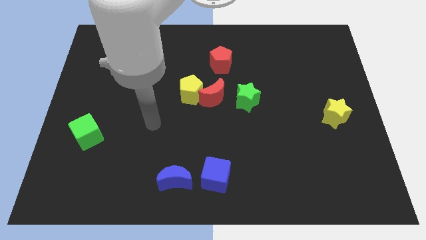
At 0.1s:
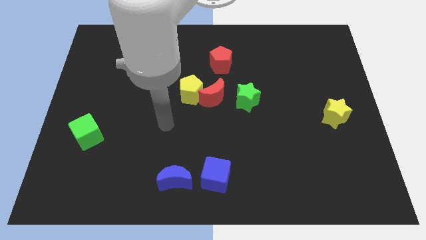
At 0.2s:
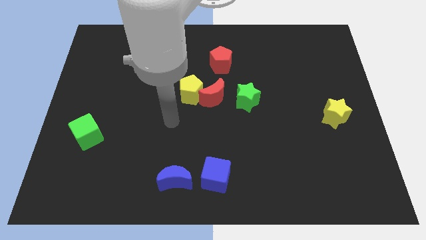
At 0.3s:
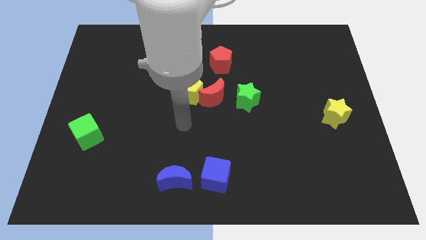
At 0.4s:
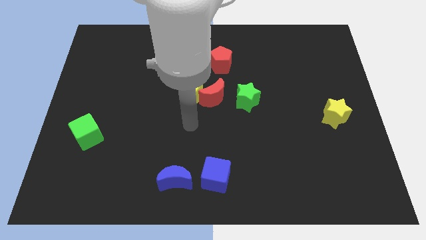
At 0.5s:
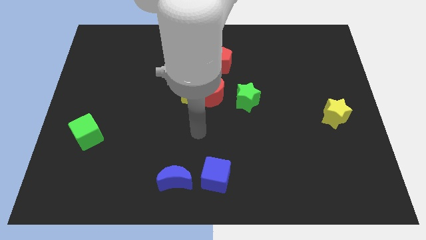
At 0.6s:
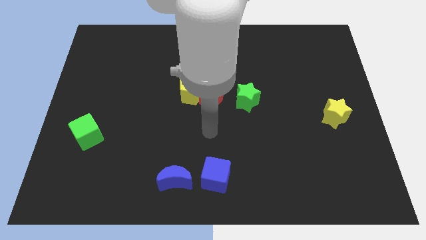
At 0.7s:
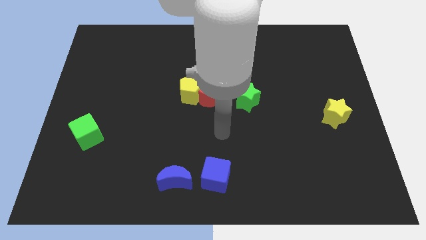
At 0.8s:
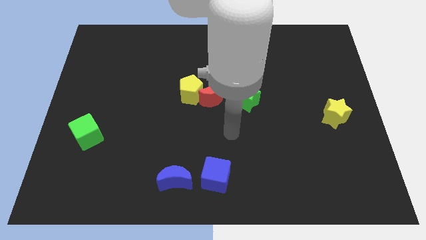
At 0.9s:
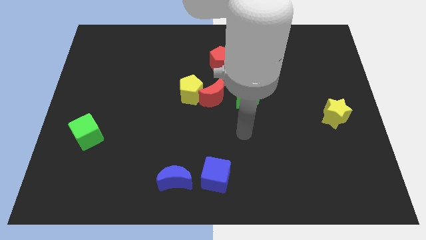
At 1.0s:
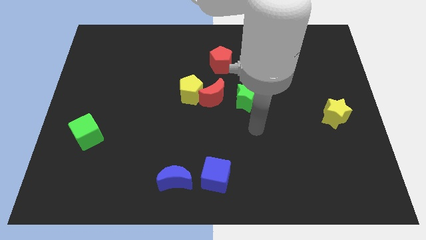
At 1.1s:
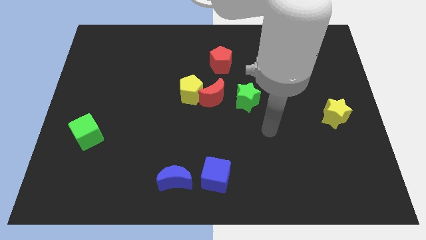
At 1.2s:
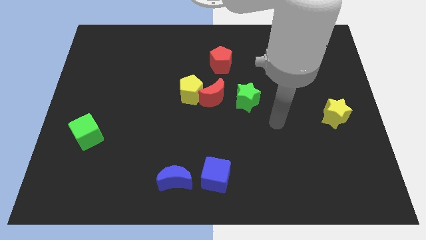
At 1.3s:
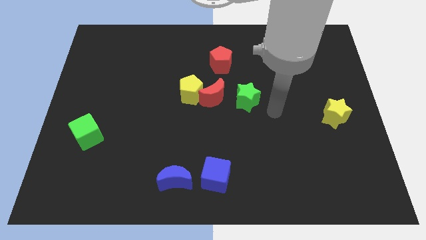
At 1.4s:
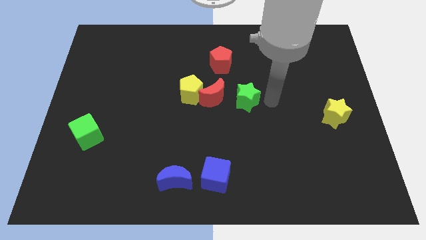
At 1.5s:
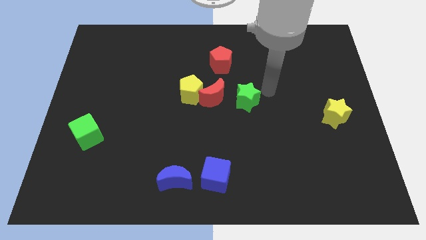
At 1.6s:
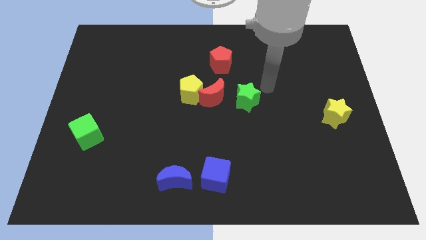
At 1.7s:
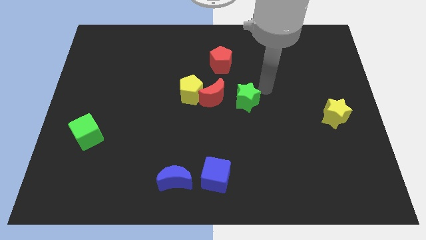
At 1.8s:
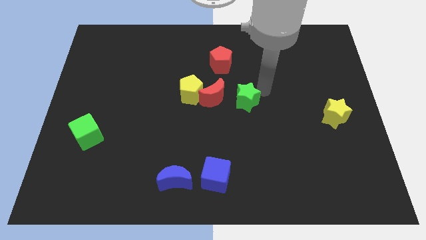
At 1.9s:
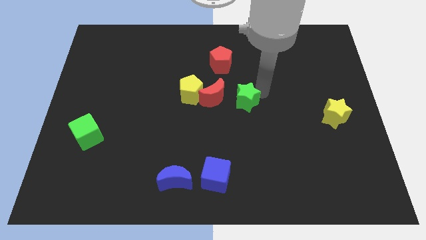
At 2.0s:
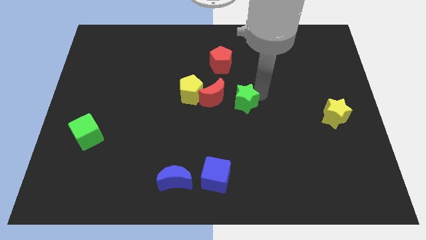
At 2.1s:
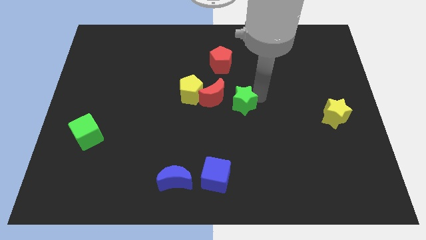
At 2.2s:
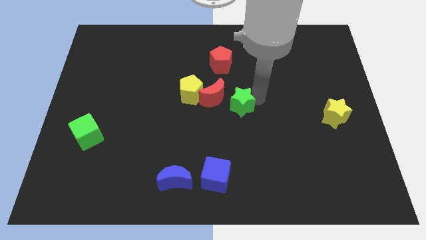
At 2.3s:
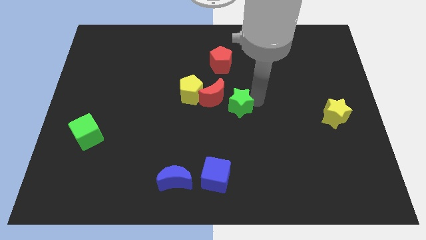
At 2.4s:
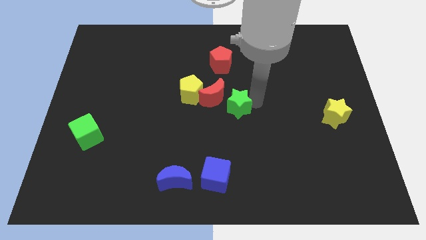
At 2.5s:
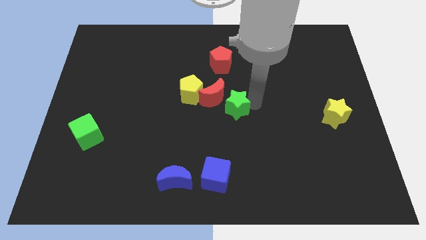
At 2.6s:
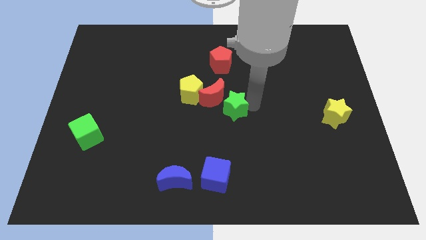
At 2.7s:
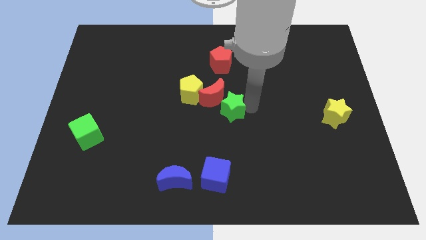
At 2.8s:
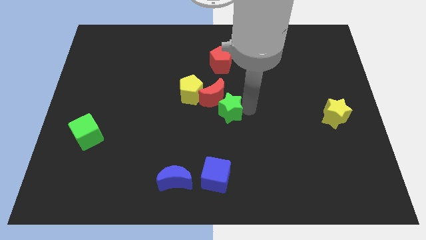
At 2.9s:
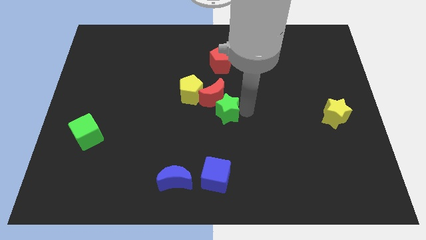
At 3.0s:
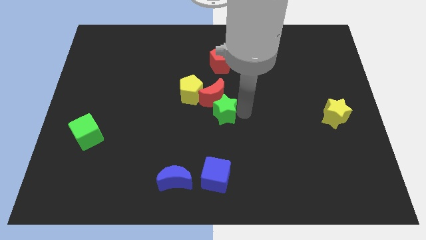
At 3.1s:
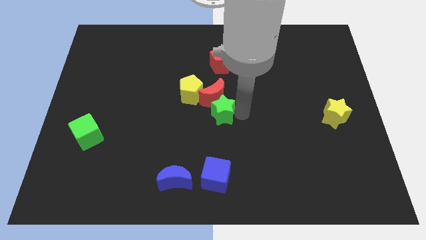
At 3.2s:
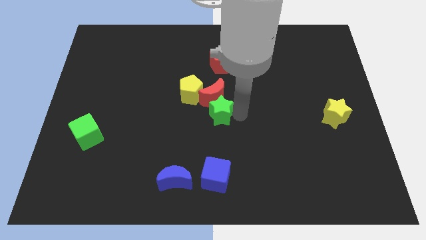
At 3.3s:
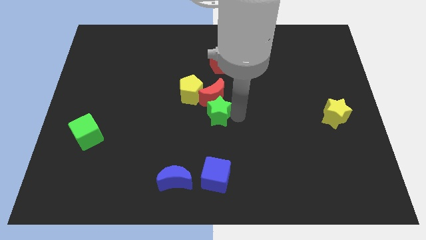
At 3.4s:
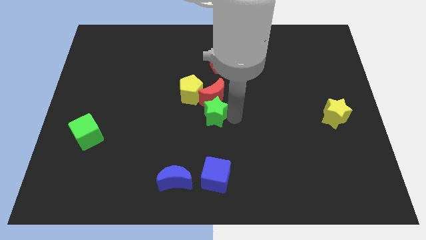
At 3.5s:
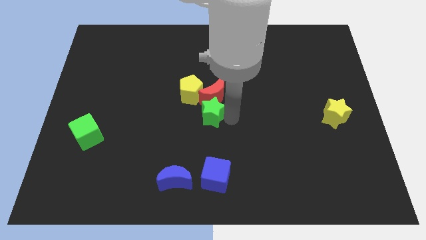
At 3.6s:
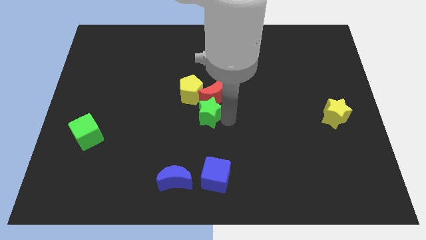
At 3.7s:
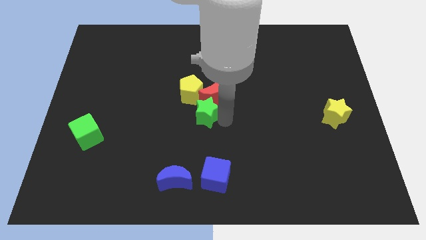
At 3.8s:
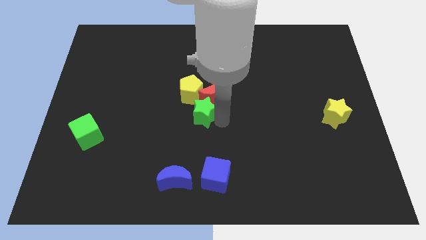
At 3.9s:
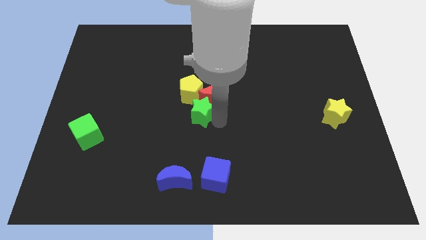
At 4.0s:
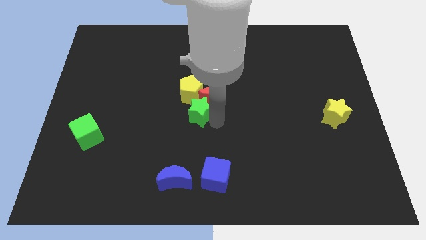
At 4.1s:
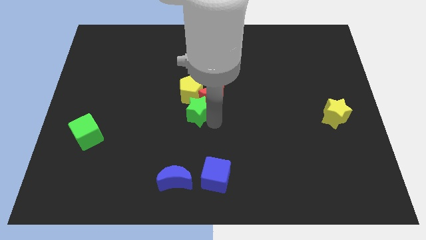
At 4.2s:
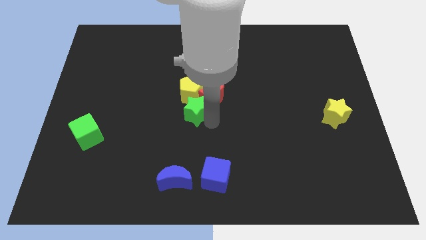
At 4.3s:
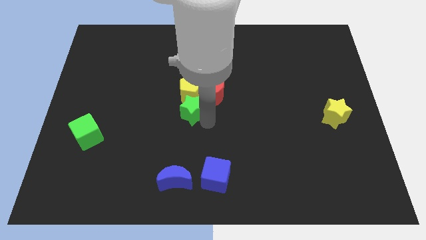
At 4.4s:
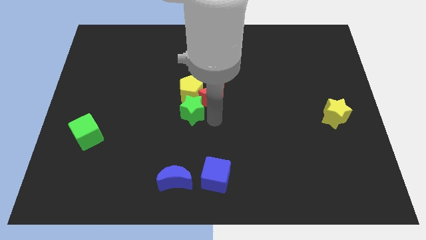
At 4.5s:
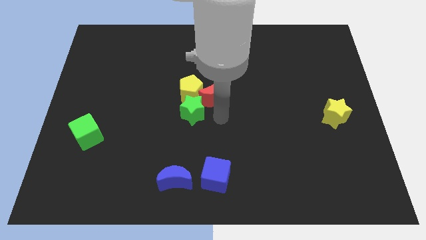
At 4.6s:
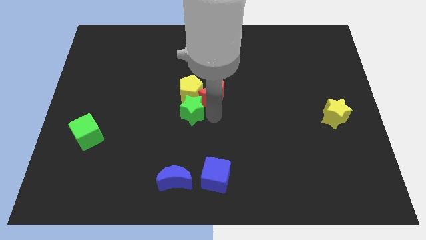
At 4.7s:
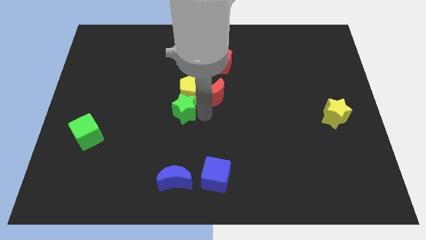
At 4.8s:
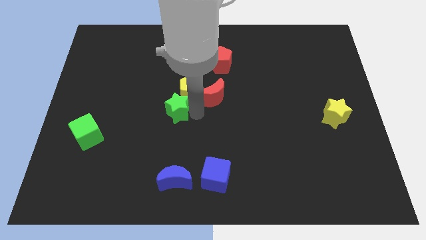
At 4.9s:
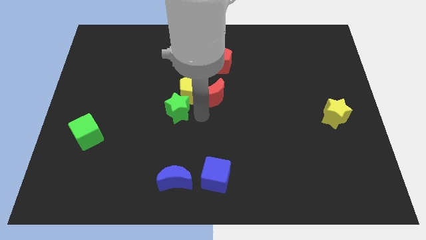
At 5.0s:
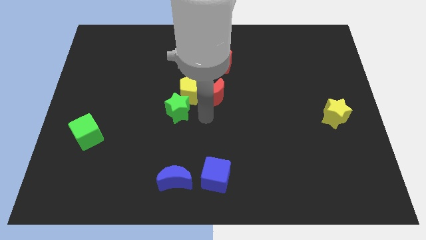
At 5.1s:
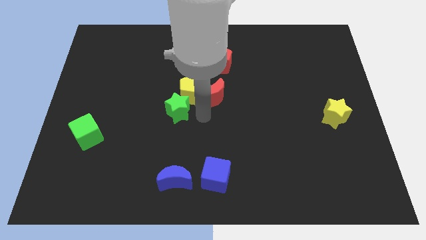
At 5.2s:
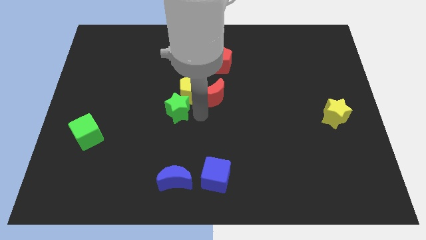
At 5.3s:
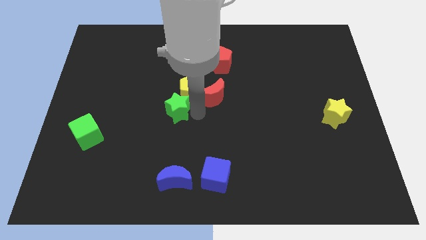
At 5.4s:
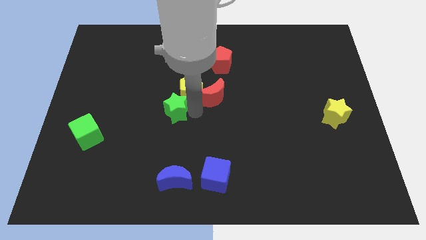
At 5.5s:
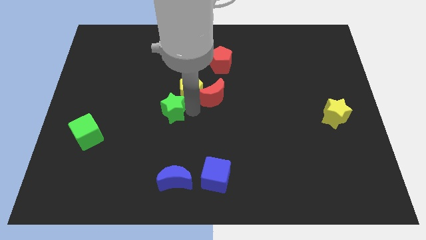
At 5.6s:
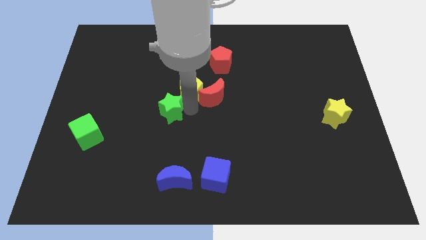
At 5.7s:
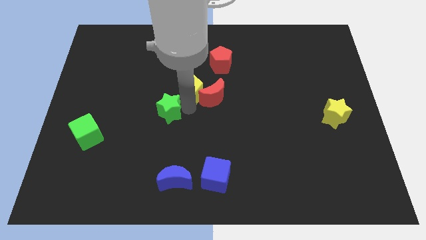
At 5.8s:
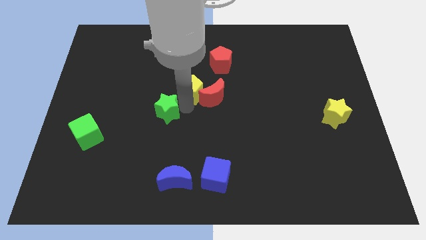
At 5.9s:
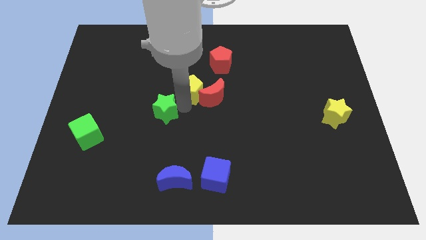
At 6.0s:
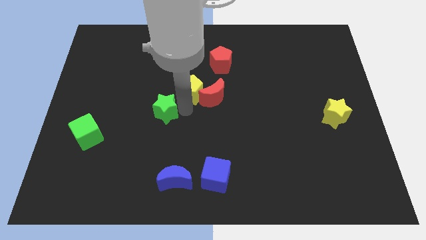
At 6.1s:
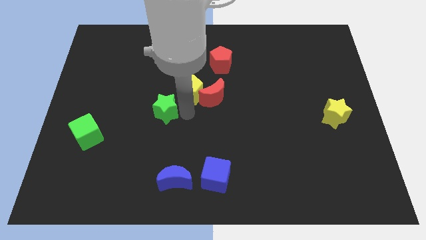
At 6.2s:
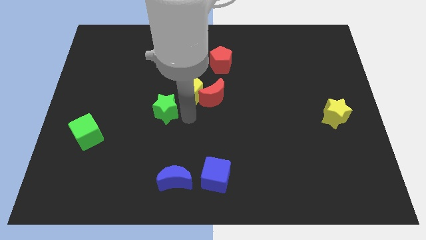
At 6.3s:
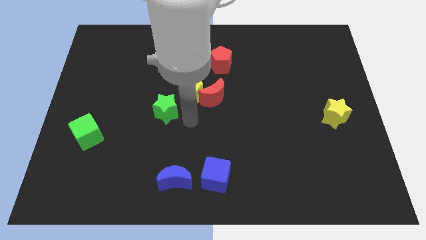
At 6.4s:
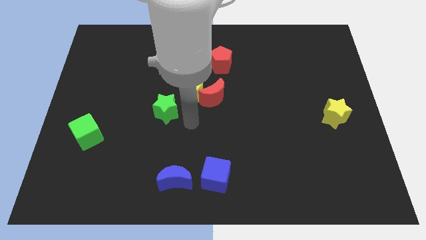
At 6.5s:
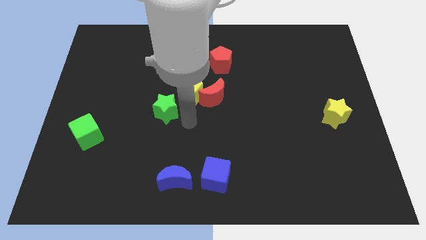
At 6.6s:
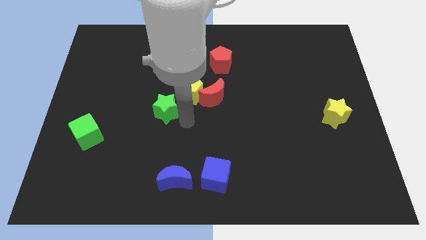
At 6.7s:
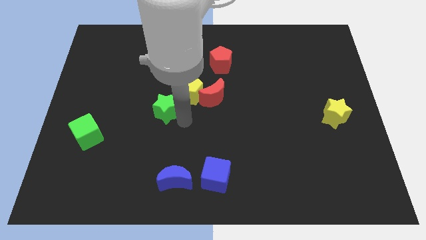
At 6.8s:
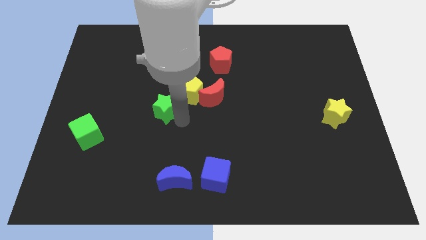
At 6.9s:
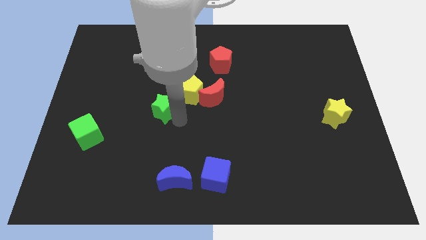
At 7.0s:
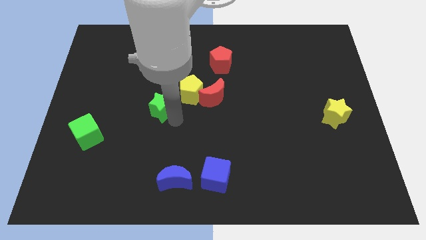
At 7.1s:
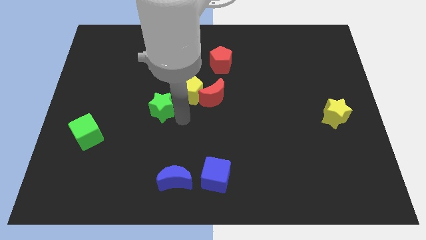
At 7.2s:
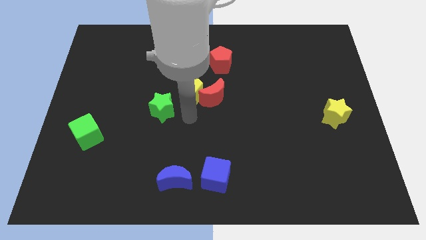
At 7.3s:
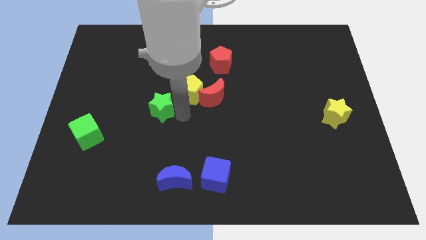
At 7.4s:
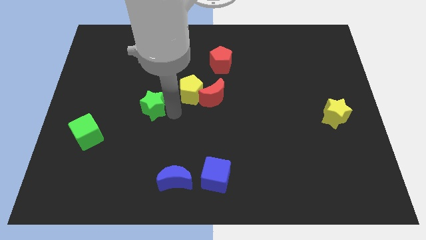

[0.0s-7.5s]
push the green star to the left

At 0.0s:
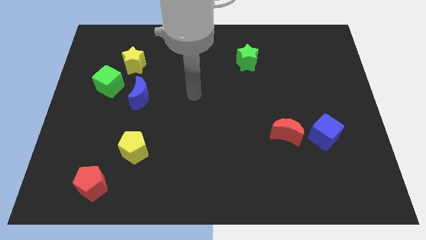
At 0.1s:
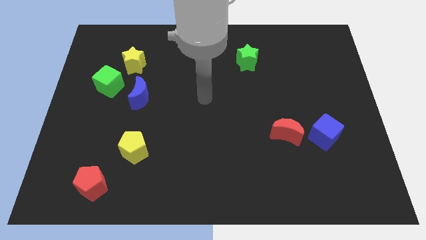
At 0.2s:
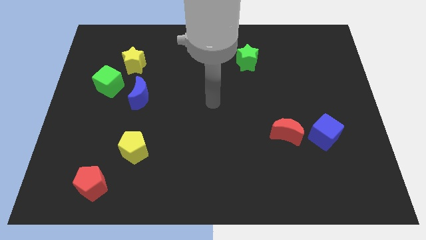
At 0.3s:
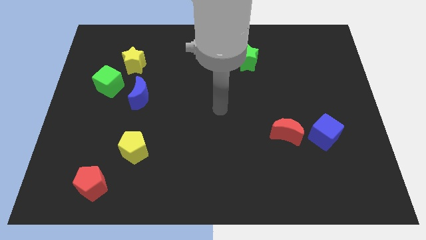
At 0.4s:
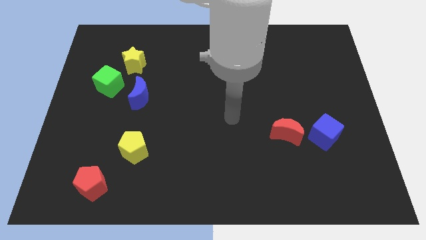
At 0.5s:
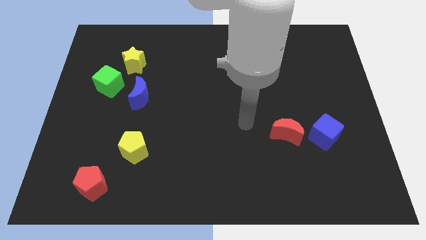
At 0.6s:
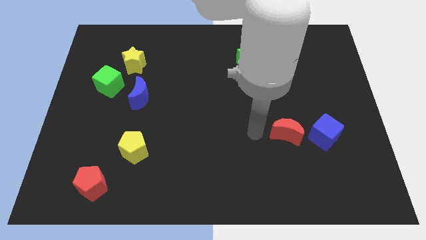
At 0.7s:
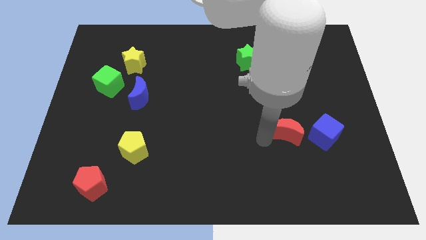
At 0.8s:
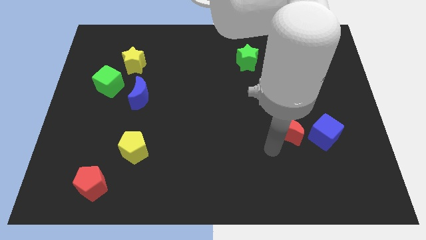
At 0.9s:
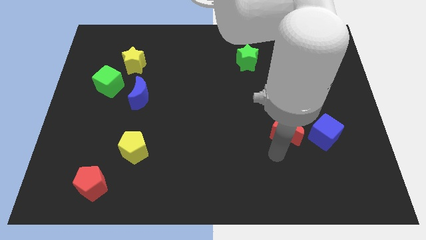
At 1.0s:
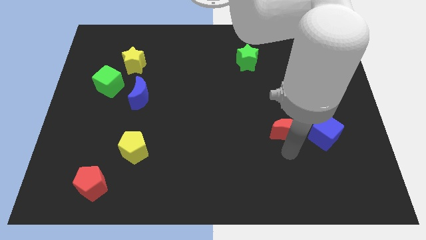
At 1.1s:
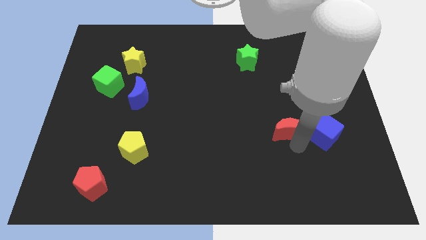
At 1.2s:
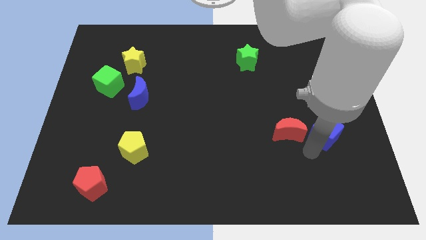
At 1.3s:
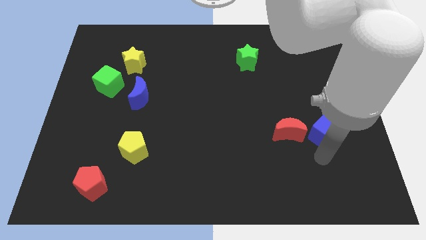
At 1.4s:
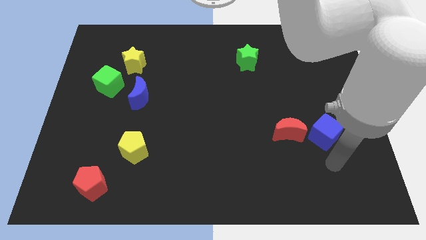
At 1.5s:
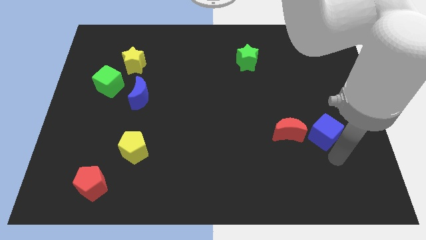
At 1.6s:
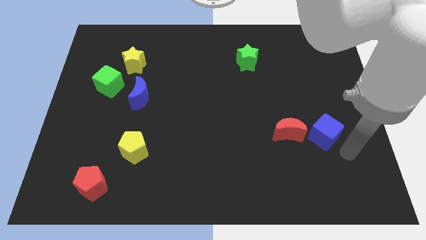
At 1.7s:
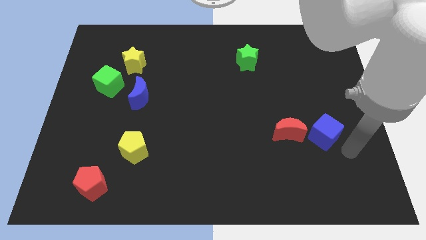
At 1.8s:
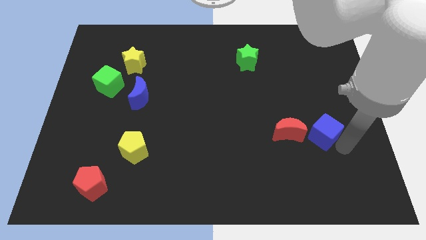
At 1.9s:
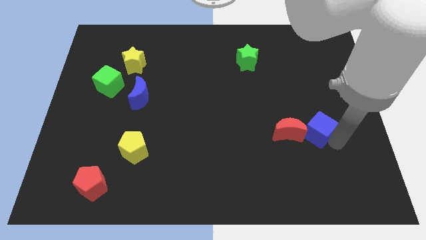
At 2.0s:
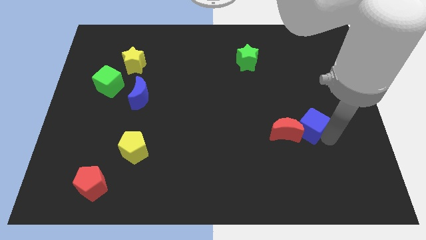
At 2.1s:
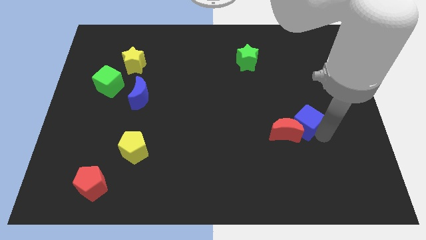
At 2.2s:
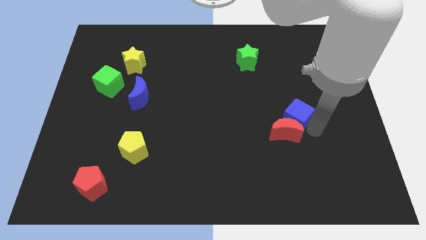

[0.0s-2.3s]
move the blue cube slightly diagonally up and left
